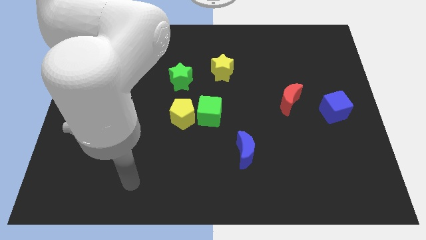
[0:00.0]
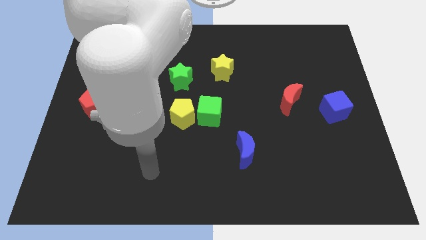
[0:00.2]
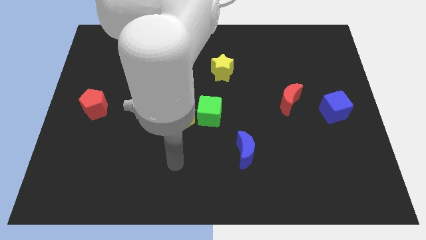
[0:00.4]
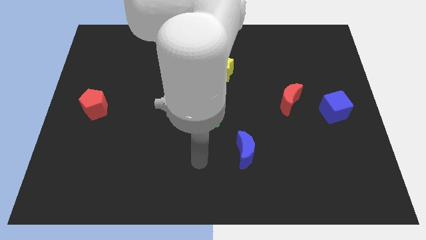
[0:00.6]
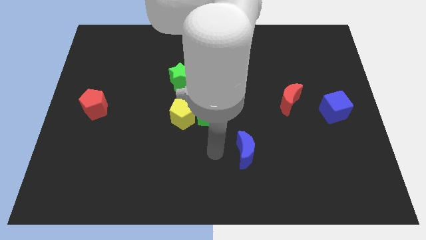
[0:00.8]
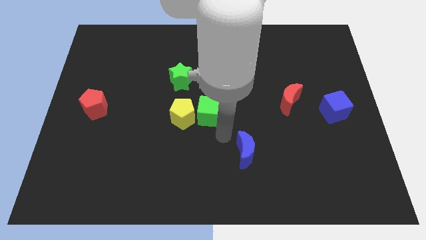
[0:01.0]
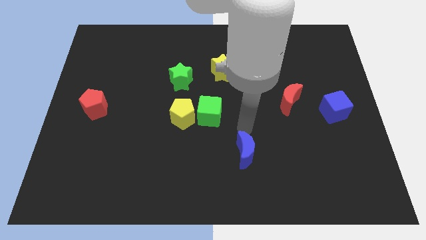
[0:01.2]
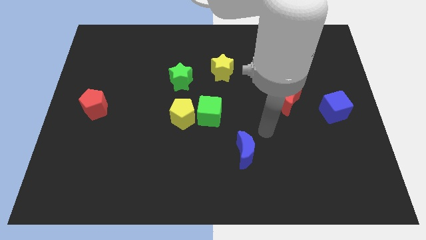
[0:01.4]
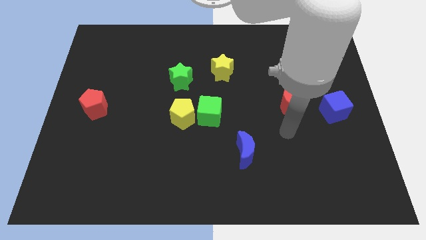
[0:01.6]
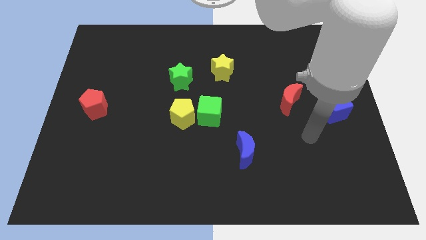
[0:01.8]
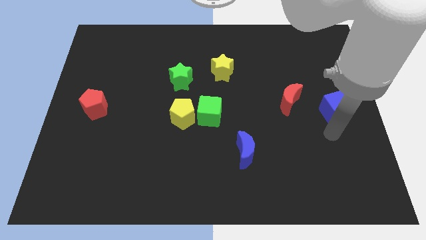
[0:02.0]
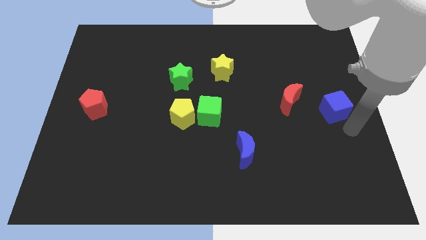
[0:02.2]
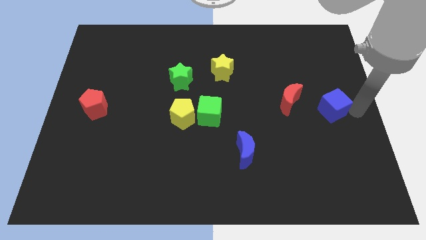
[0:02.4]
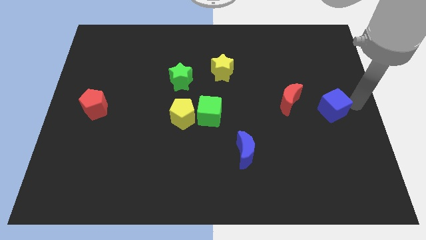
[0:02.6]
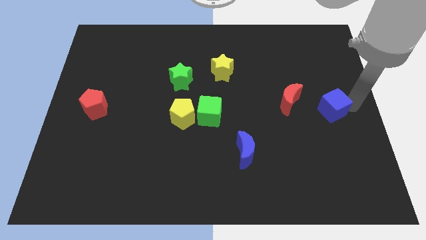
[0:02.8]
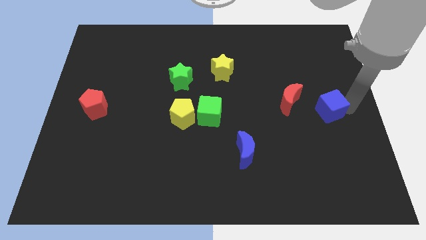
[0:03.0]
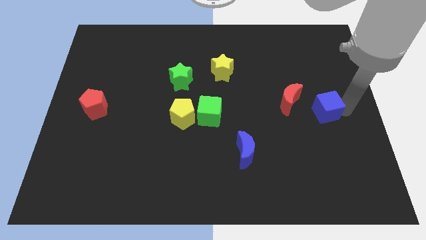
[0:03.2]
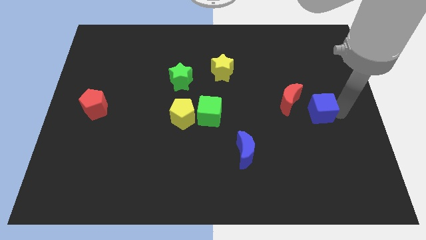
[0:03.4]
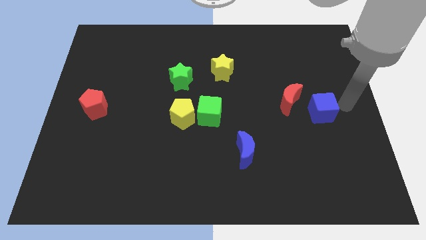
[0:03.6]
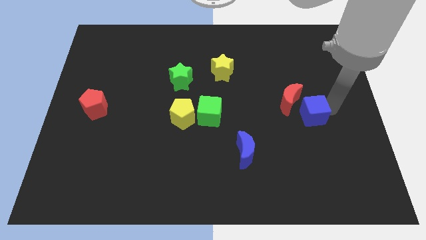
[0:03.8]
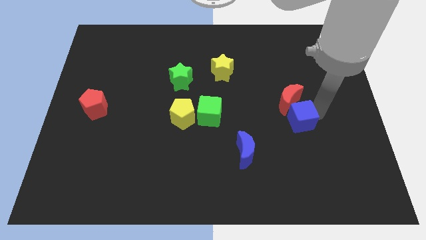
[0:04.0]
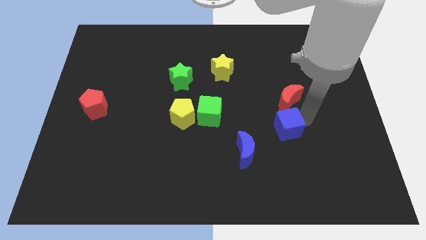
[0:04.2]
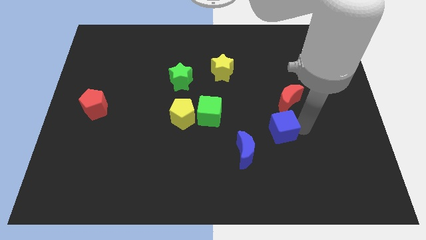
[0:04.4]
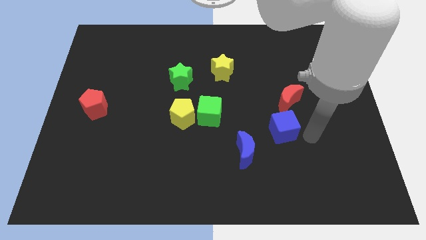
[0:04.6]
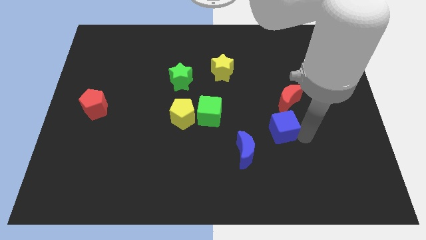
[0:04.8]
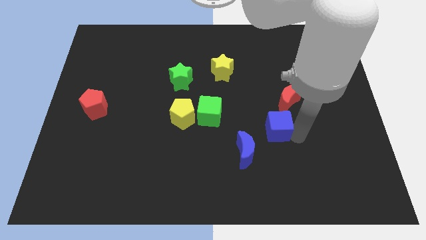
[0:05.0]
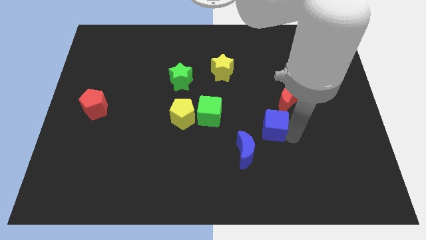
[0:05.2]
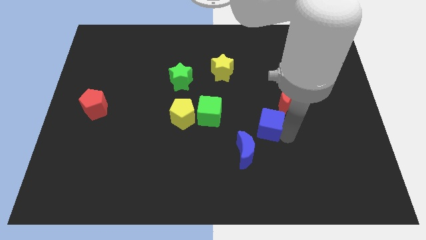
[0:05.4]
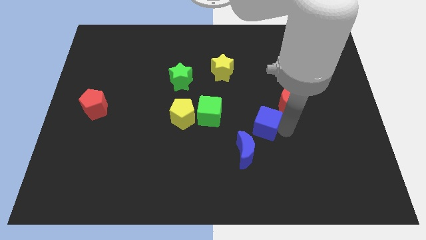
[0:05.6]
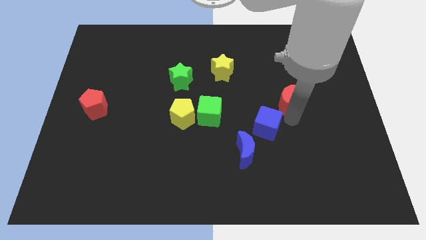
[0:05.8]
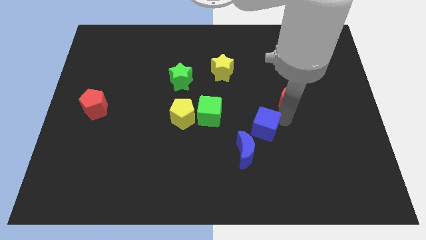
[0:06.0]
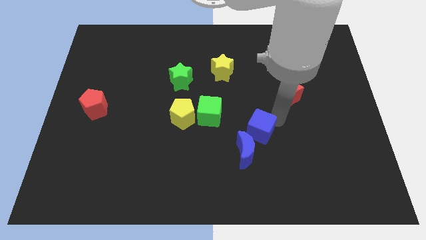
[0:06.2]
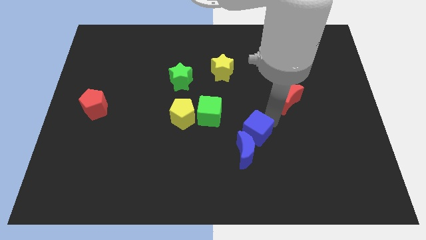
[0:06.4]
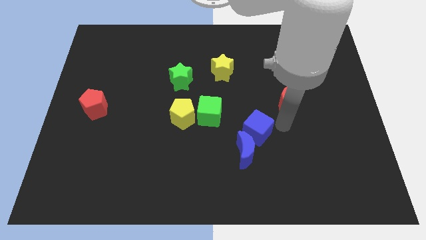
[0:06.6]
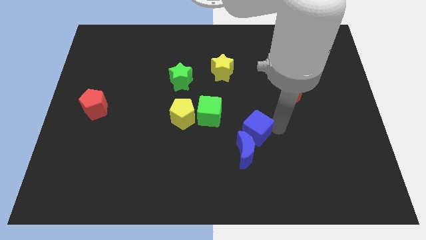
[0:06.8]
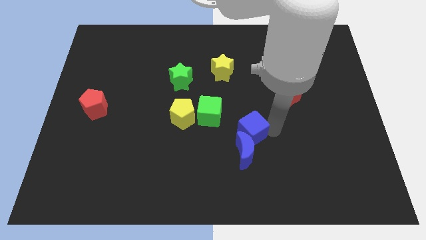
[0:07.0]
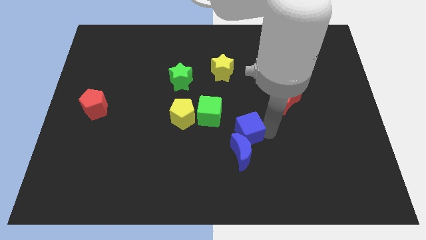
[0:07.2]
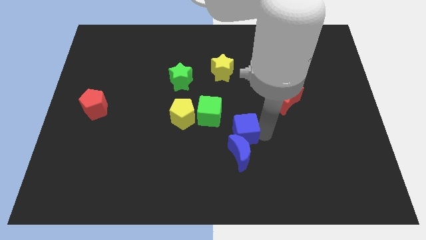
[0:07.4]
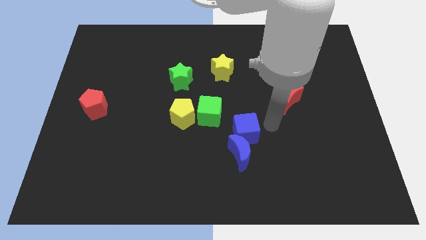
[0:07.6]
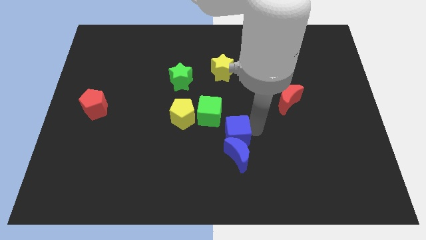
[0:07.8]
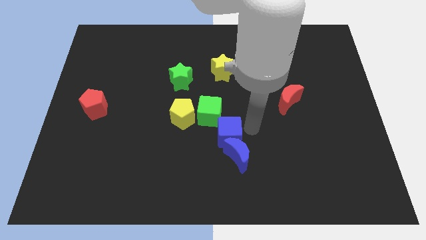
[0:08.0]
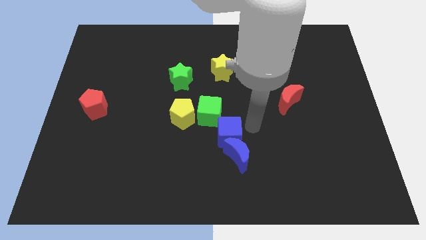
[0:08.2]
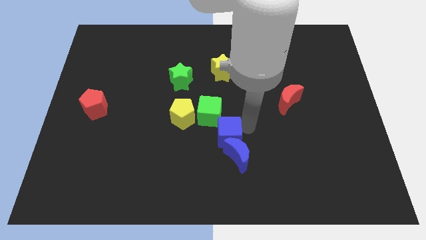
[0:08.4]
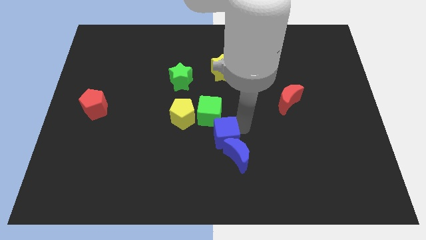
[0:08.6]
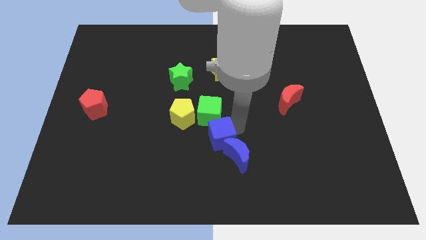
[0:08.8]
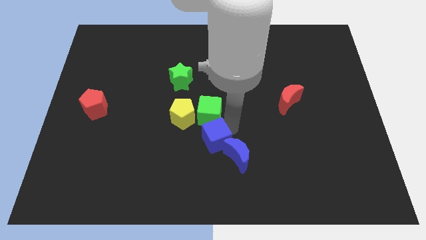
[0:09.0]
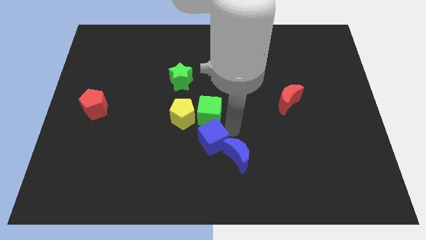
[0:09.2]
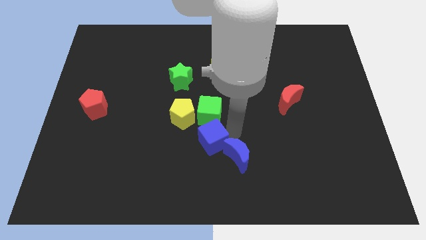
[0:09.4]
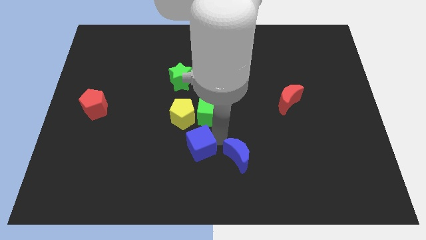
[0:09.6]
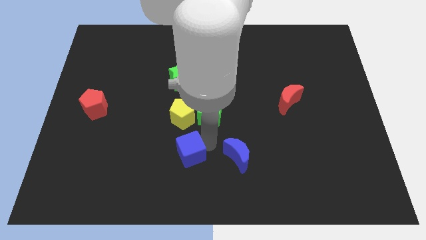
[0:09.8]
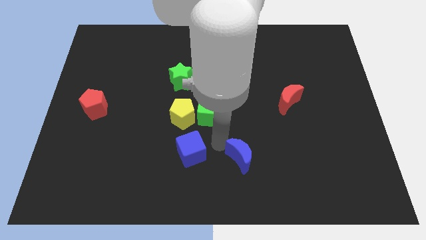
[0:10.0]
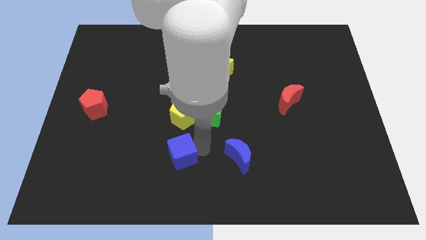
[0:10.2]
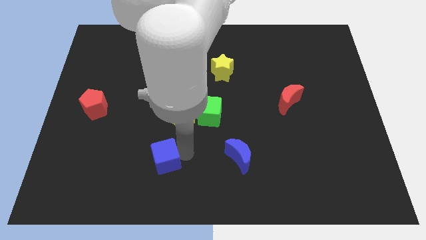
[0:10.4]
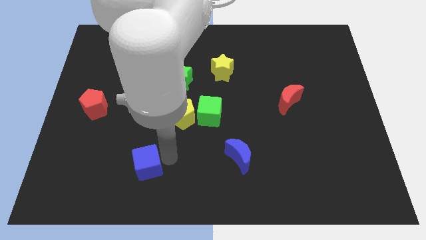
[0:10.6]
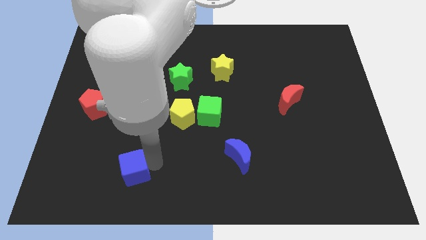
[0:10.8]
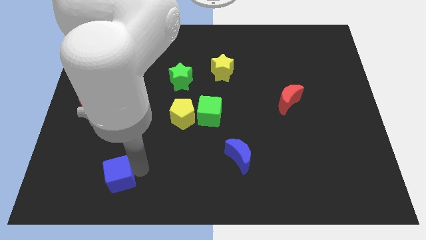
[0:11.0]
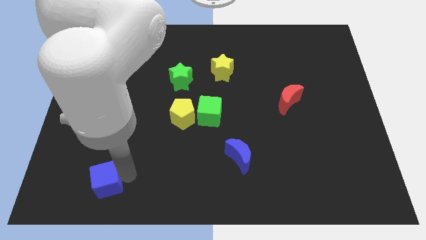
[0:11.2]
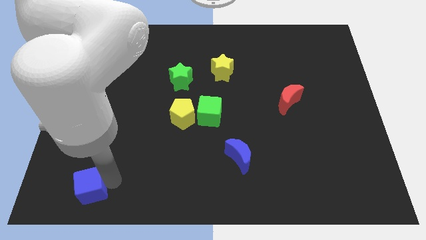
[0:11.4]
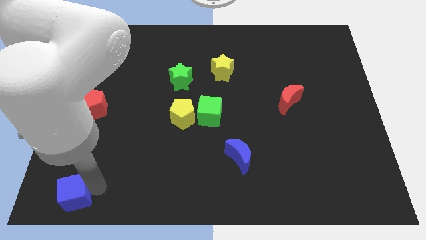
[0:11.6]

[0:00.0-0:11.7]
move the blue cube to the bottom left of the board

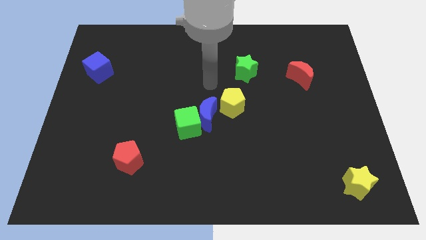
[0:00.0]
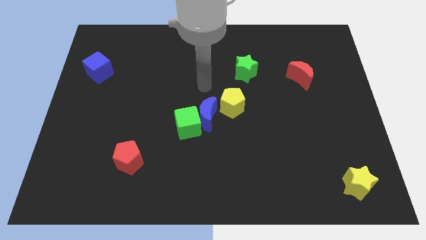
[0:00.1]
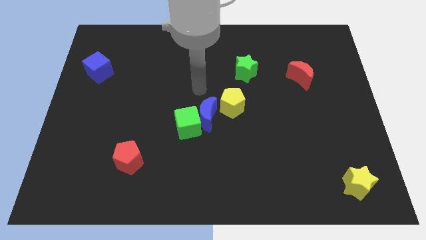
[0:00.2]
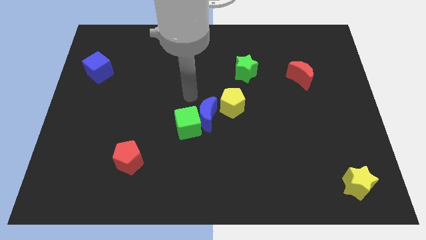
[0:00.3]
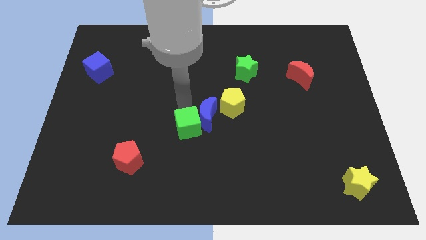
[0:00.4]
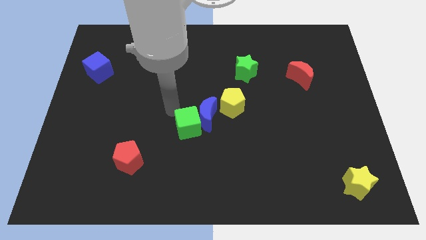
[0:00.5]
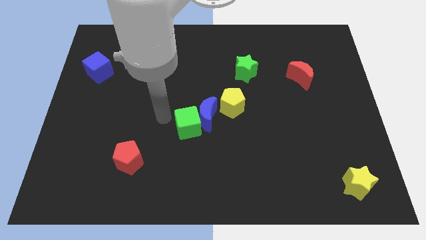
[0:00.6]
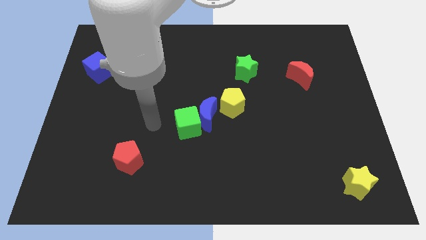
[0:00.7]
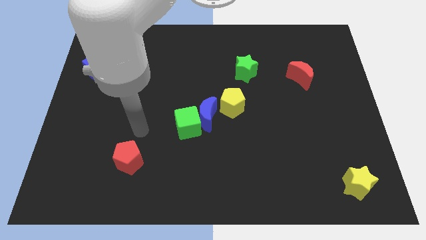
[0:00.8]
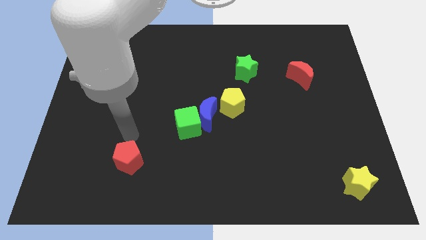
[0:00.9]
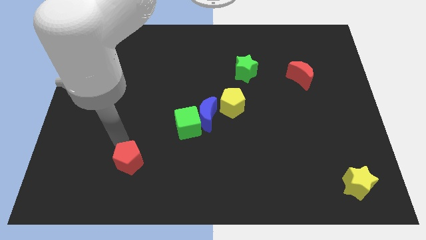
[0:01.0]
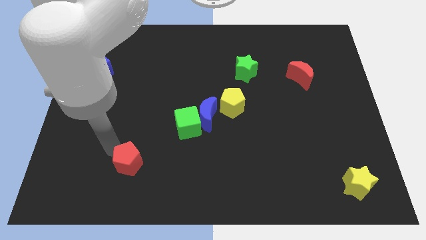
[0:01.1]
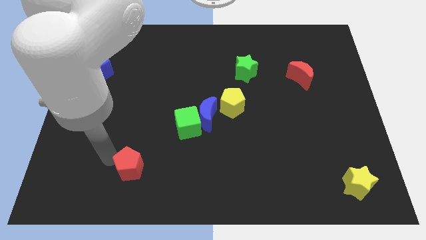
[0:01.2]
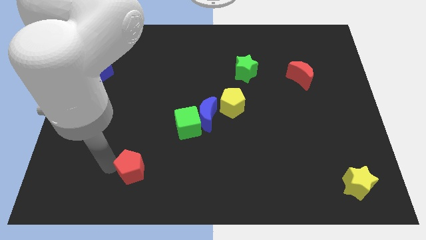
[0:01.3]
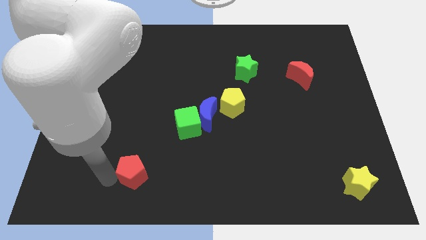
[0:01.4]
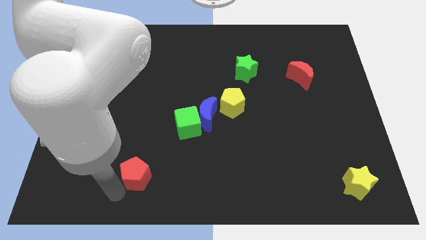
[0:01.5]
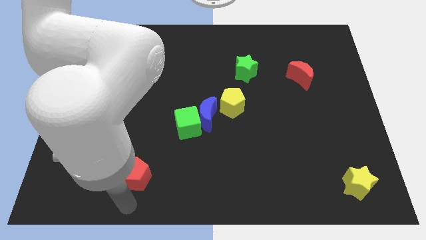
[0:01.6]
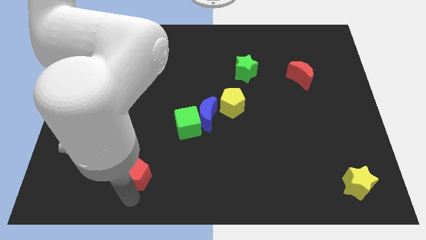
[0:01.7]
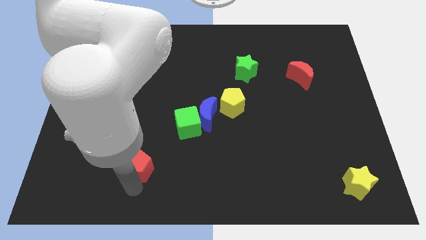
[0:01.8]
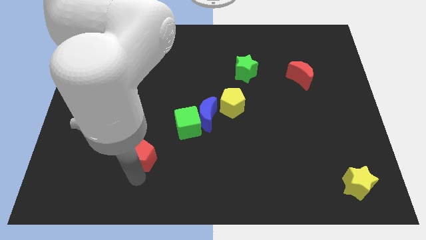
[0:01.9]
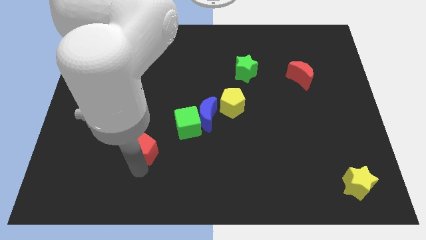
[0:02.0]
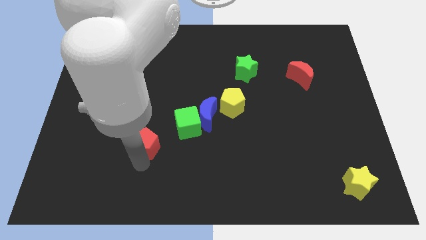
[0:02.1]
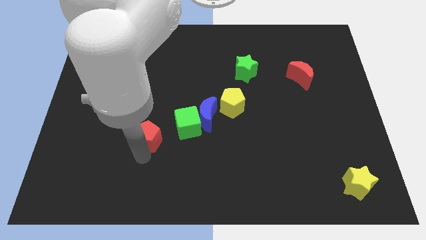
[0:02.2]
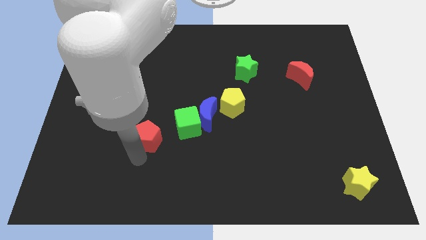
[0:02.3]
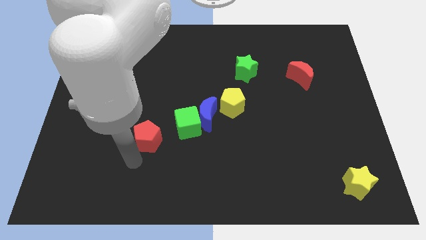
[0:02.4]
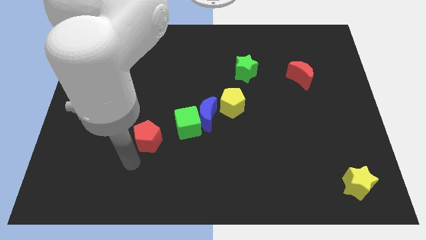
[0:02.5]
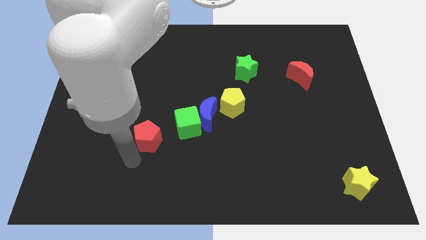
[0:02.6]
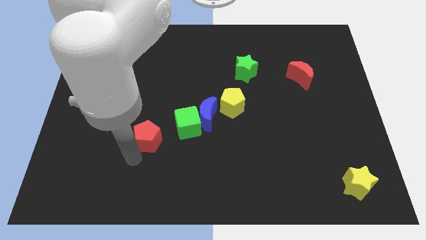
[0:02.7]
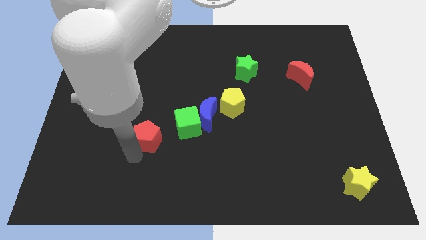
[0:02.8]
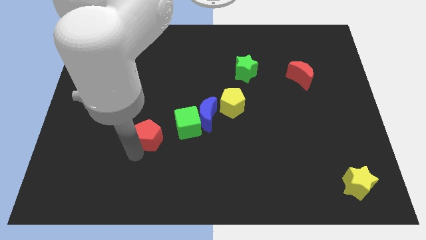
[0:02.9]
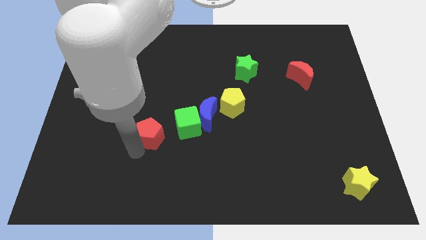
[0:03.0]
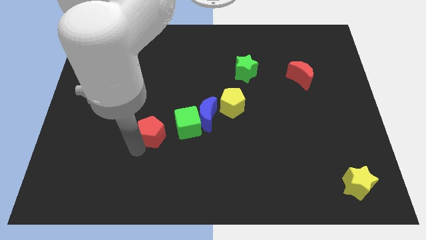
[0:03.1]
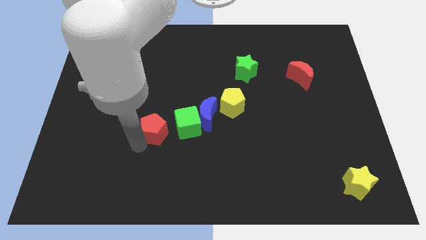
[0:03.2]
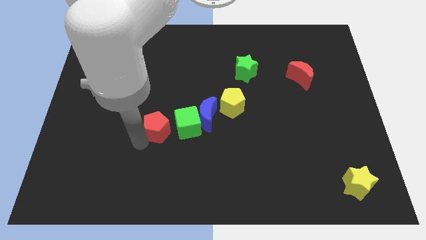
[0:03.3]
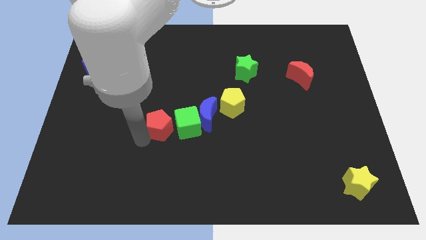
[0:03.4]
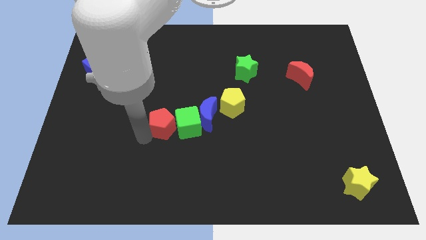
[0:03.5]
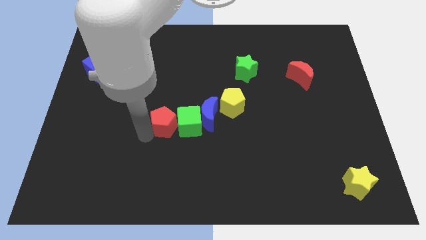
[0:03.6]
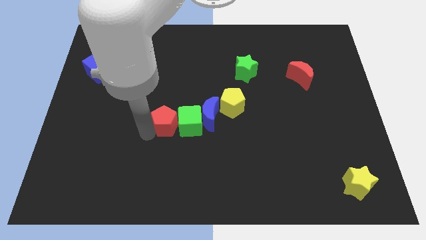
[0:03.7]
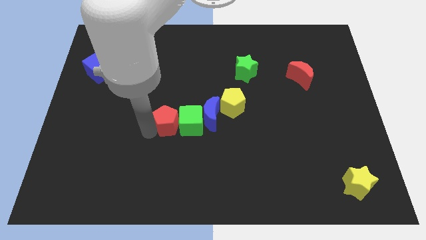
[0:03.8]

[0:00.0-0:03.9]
put the red pentagon to the middle
